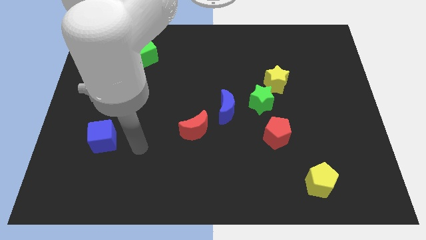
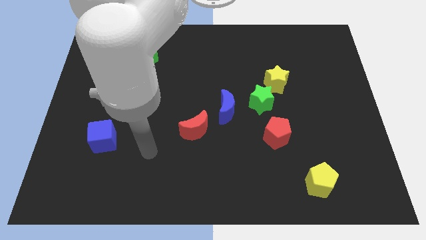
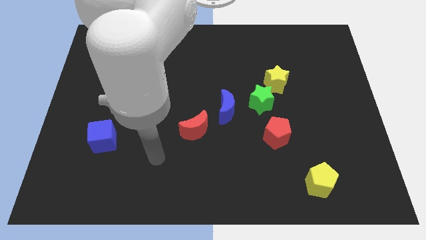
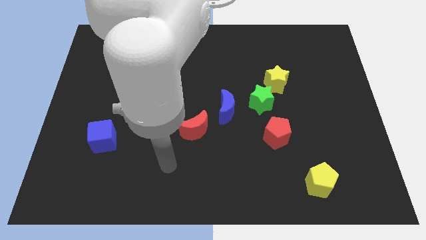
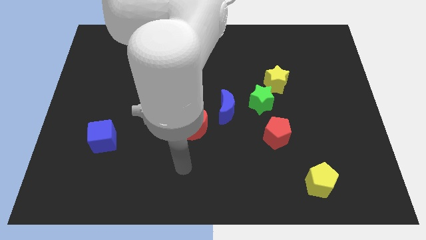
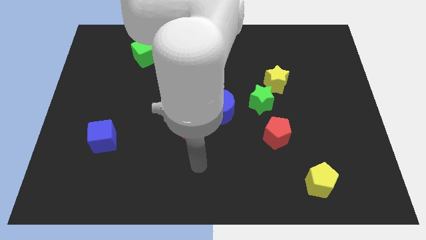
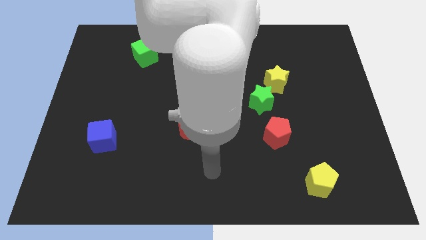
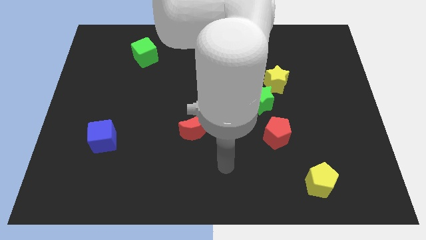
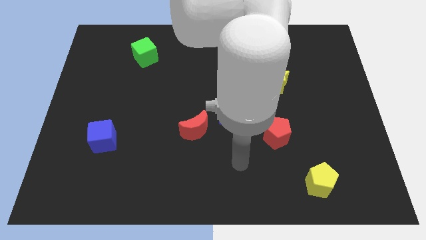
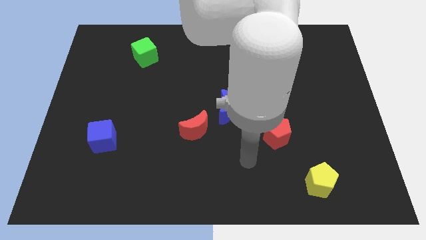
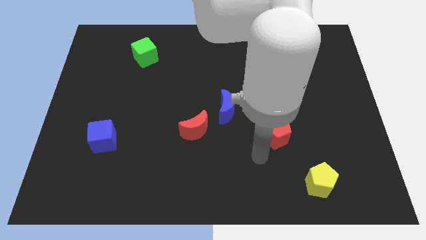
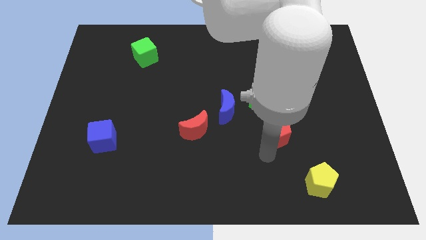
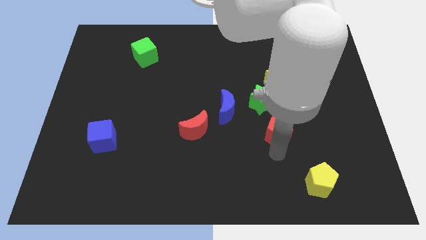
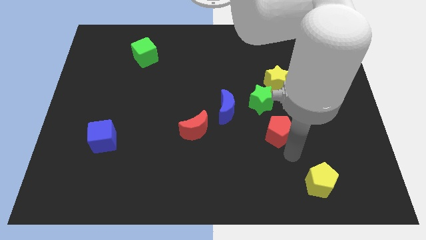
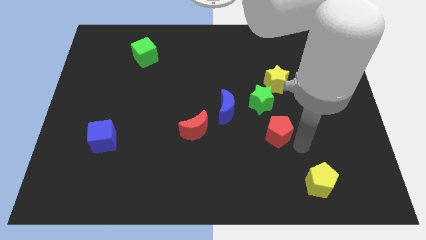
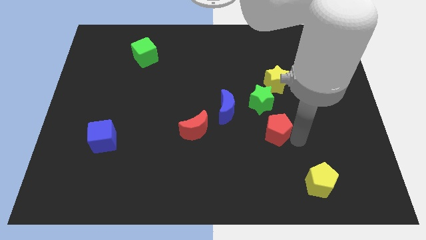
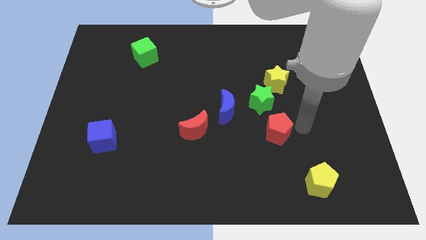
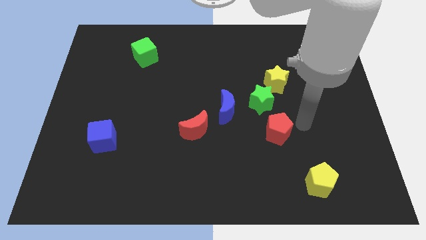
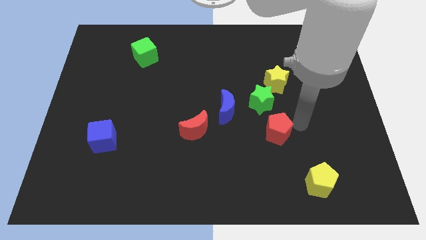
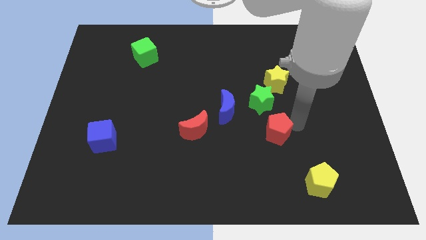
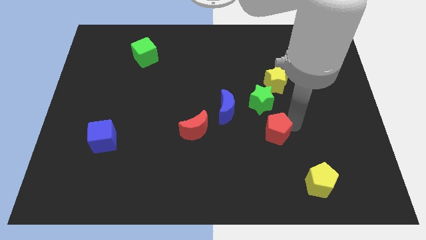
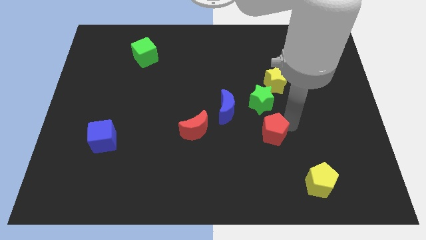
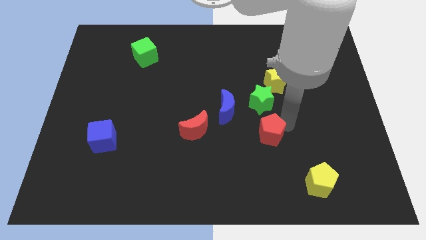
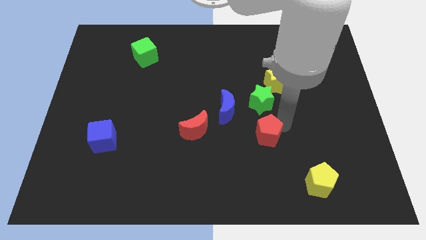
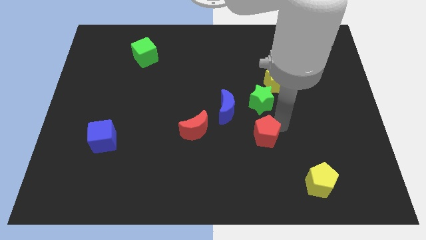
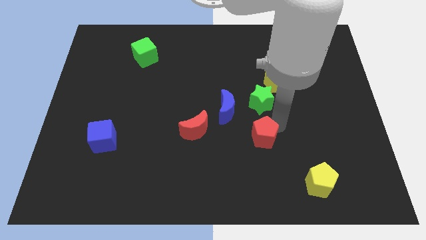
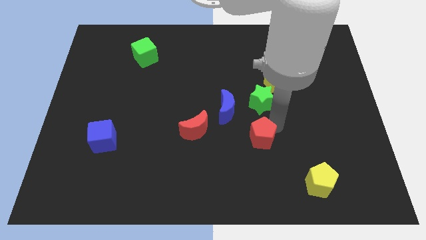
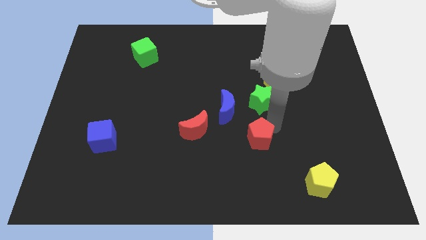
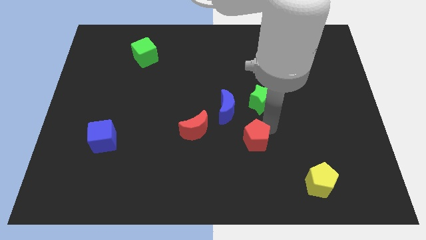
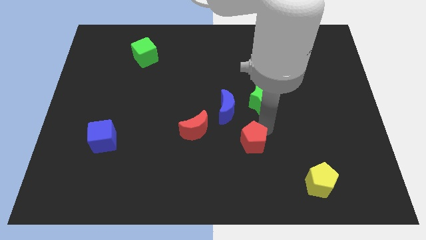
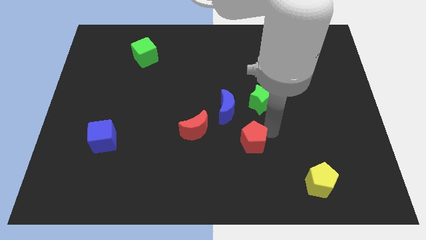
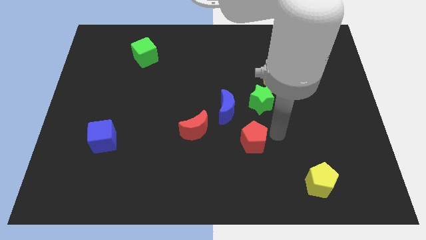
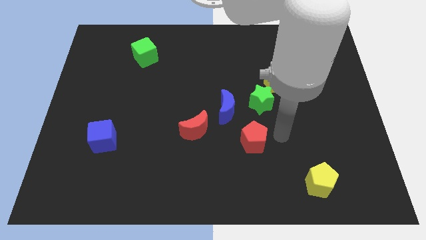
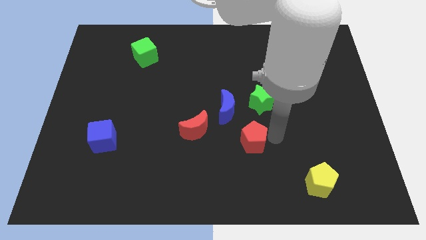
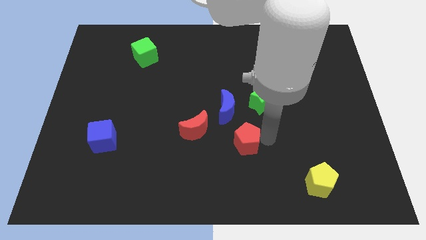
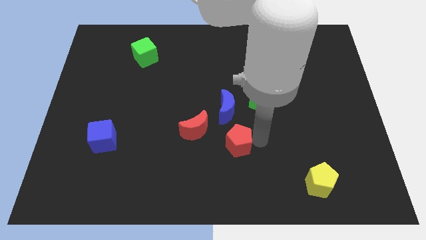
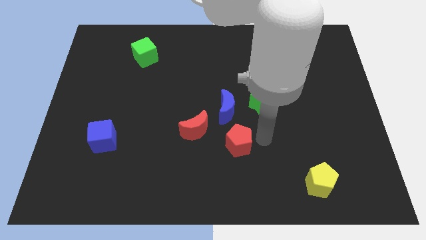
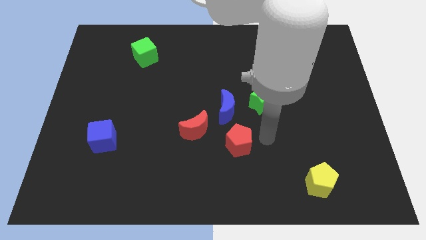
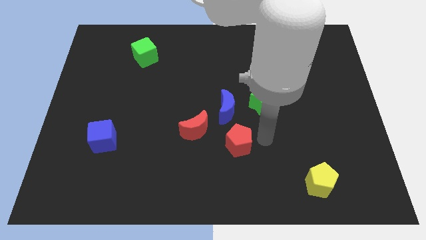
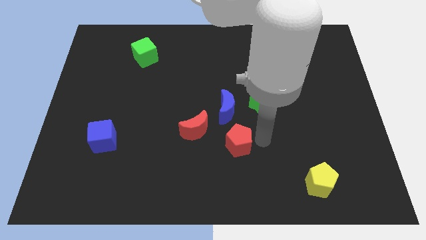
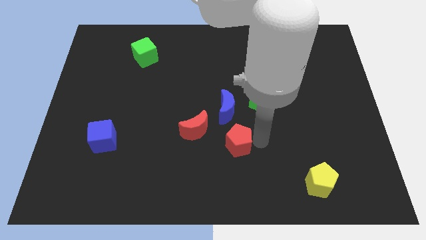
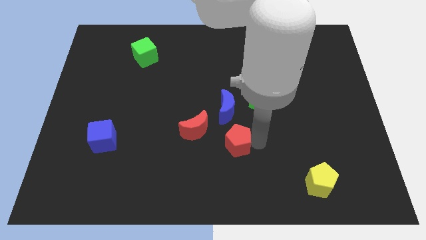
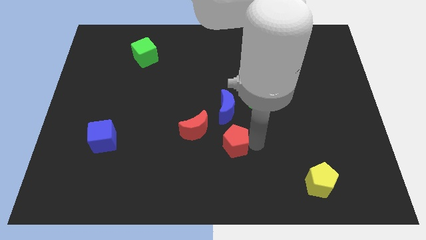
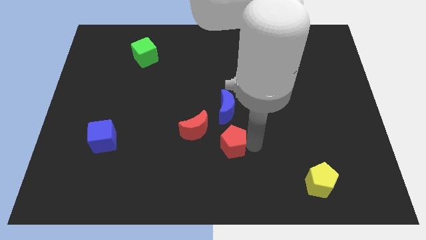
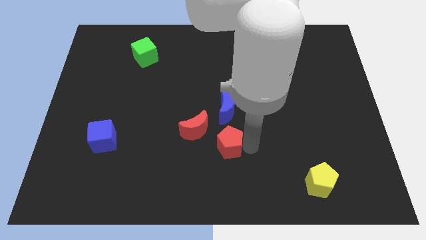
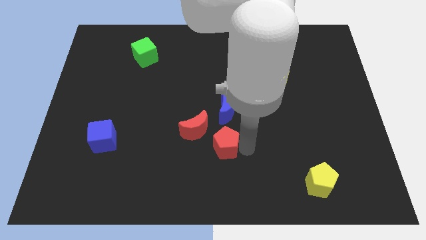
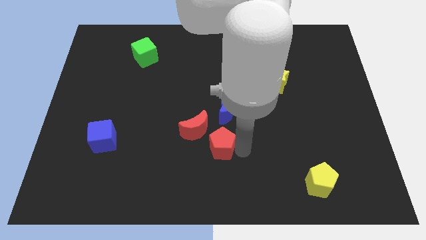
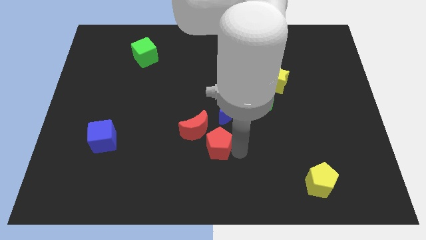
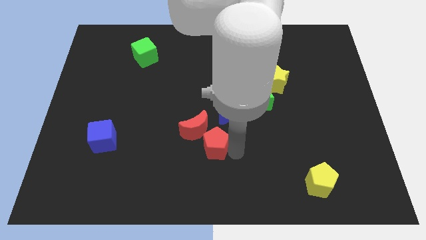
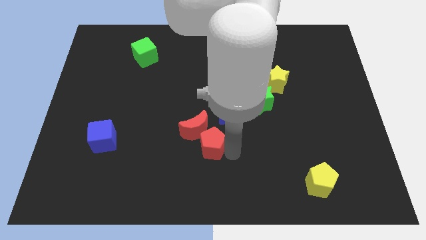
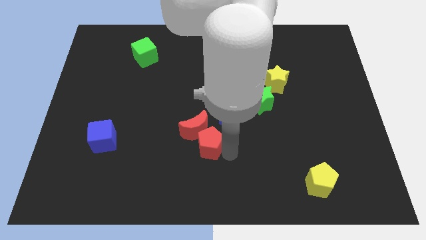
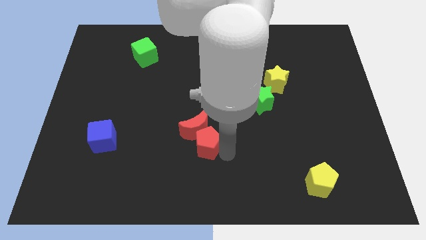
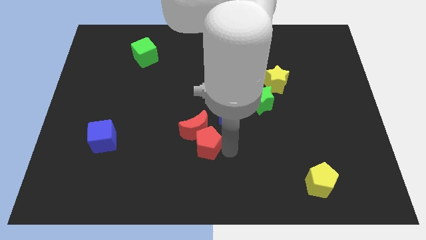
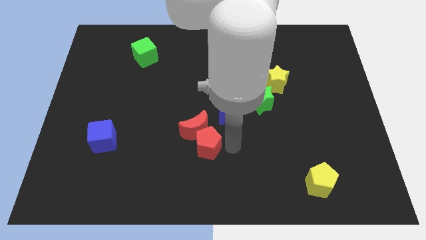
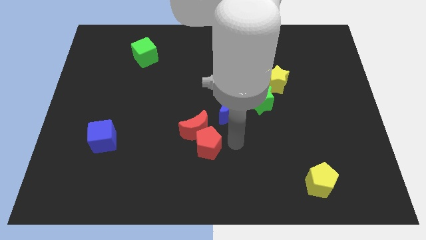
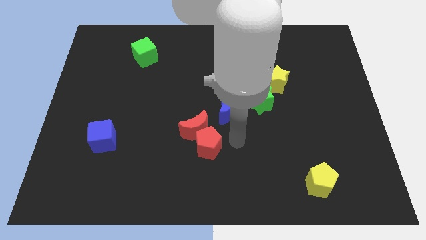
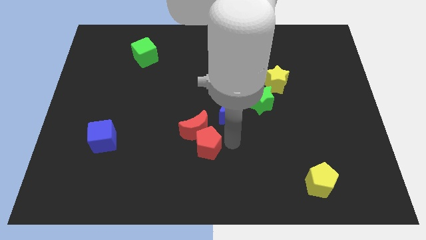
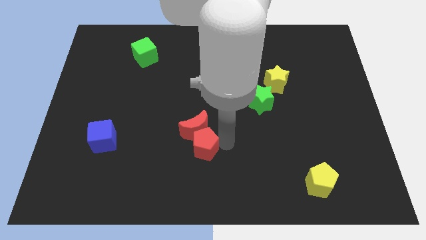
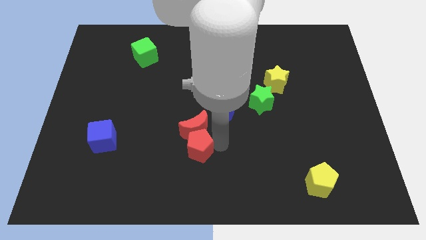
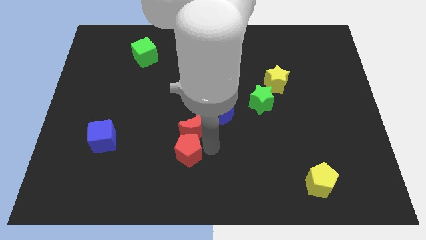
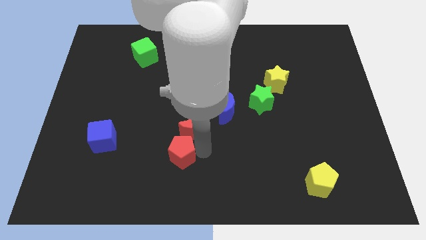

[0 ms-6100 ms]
push the red pentagon left

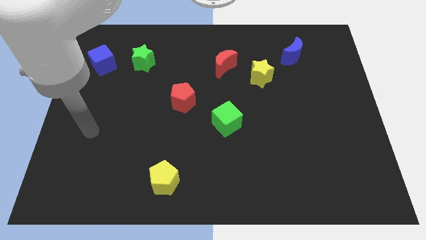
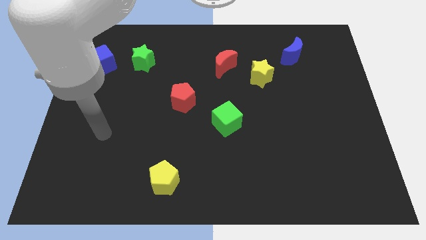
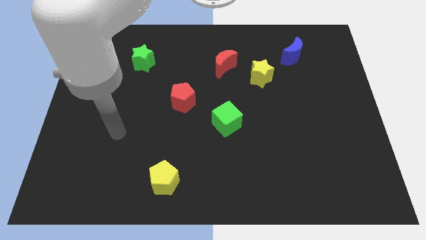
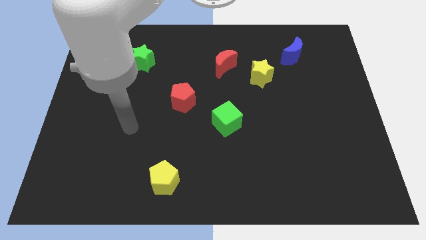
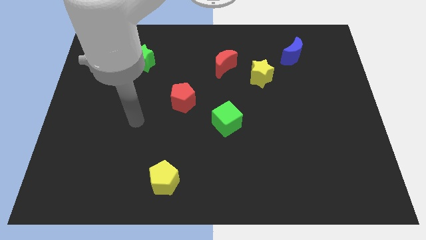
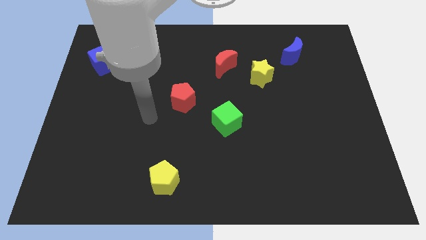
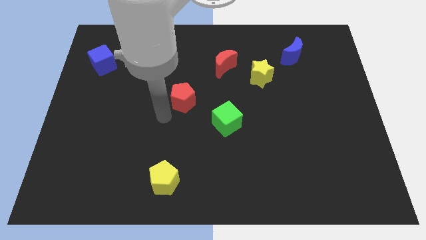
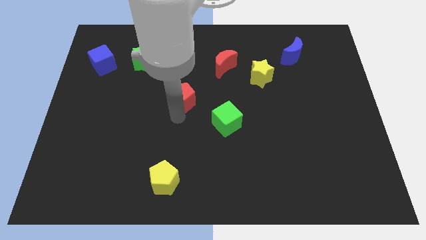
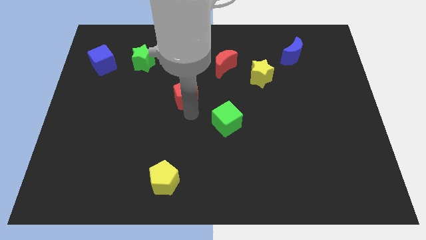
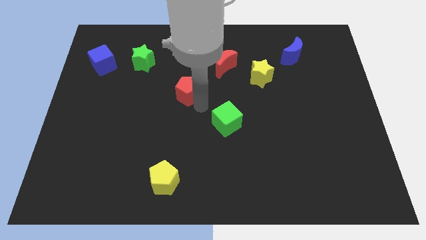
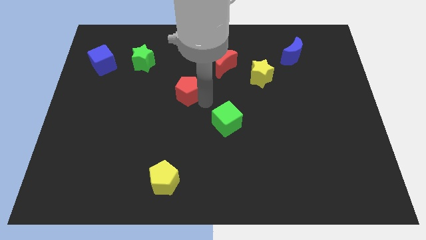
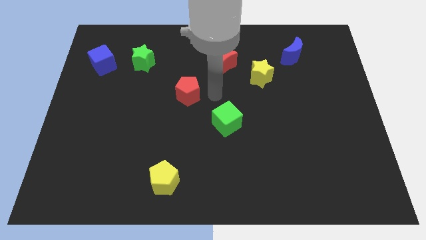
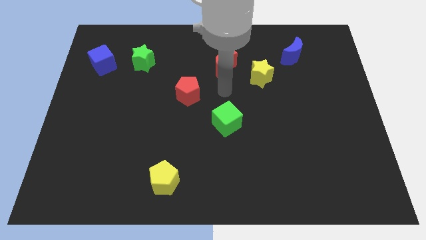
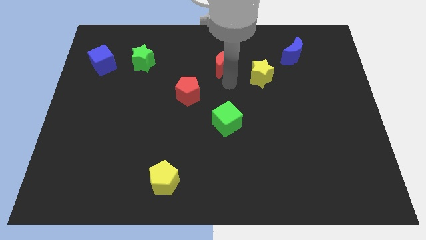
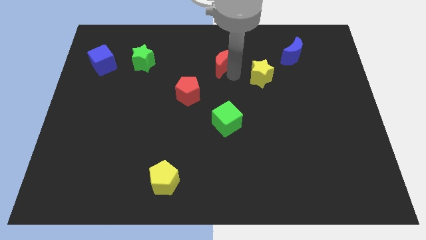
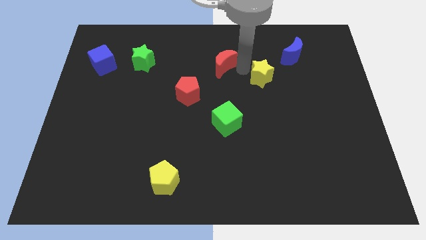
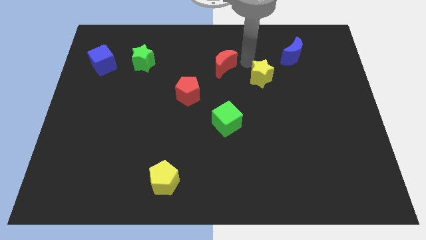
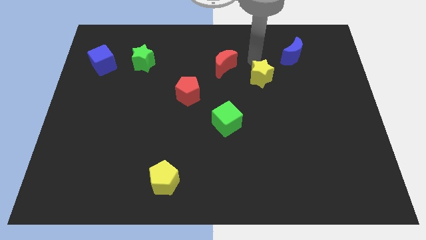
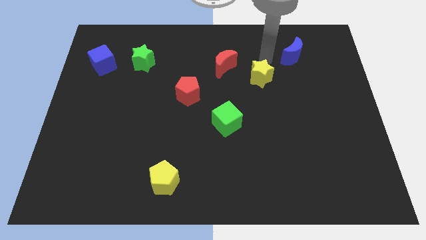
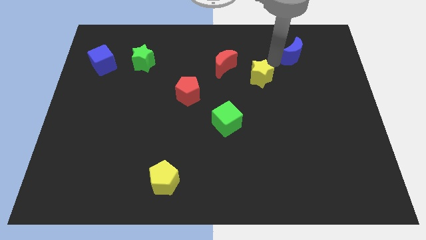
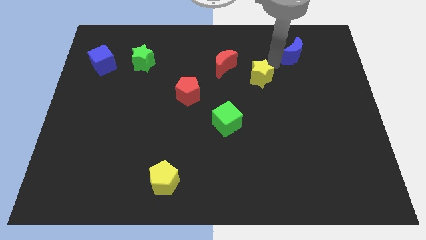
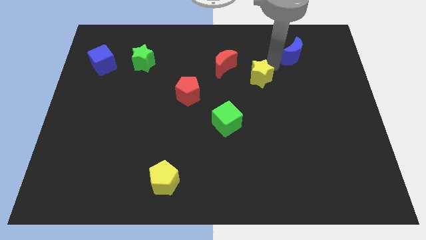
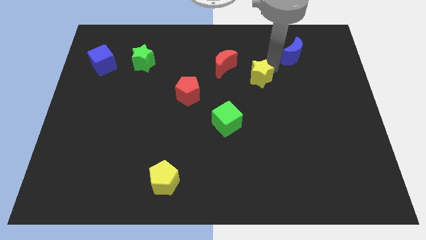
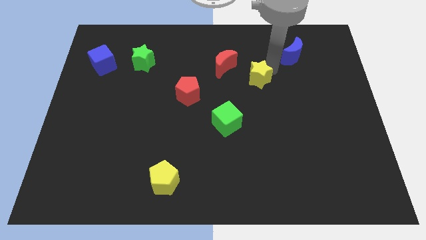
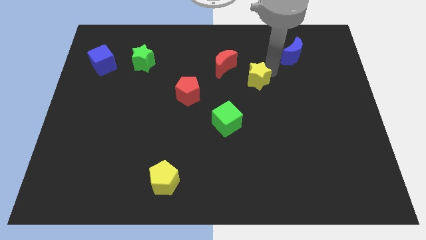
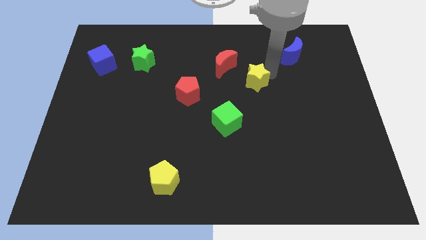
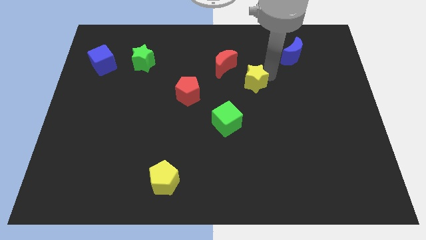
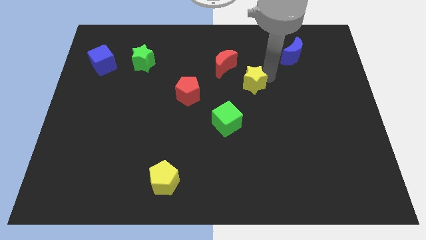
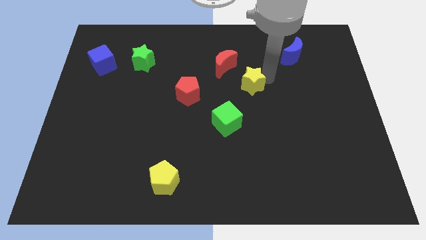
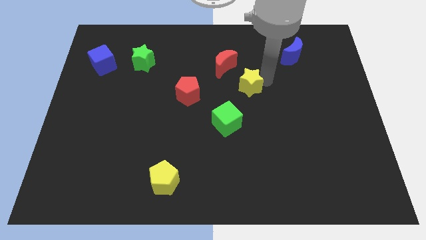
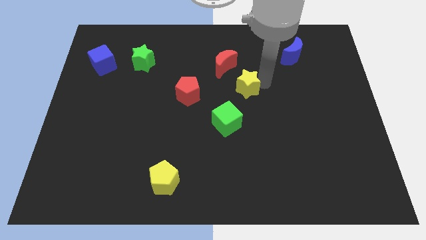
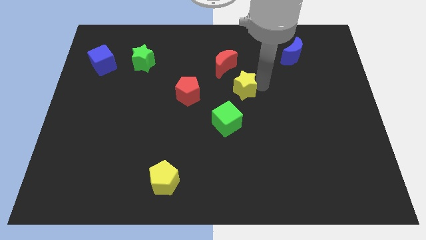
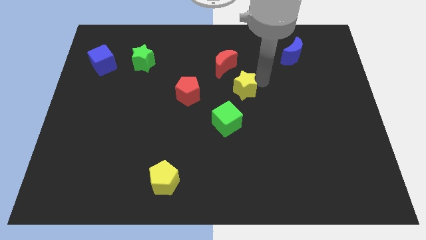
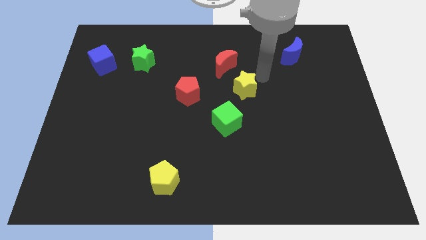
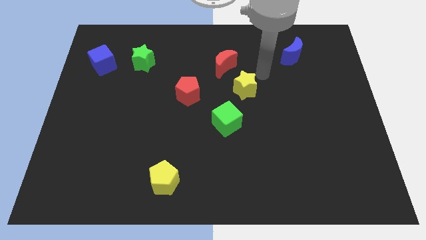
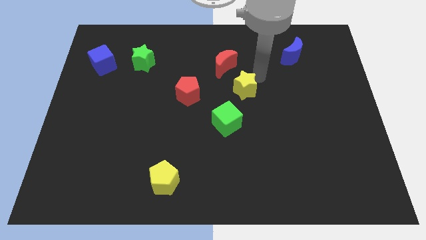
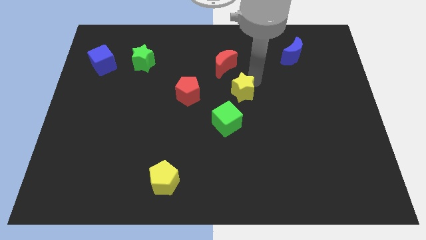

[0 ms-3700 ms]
slide the yellow star diagonally downwards and to the left a bit
